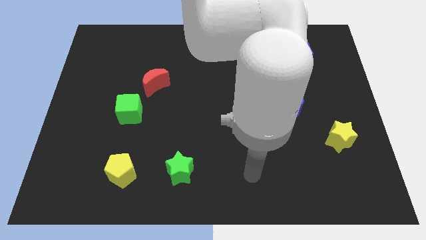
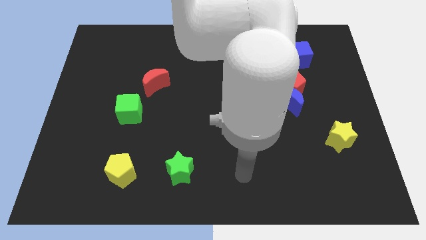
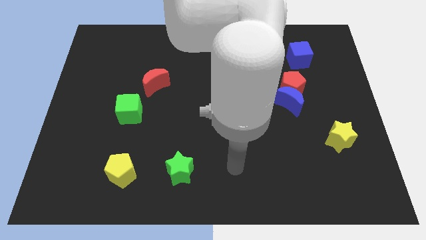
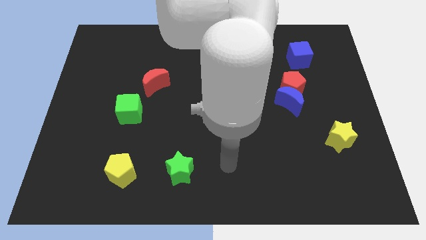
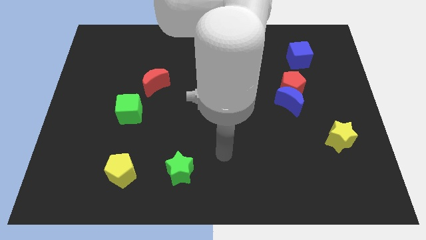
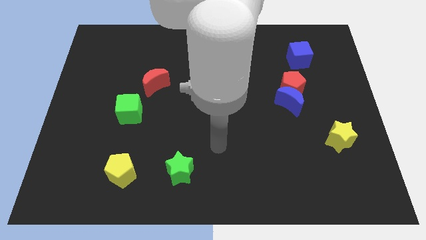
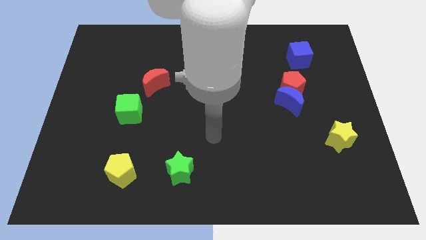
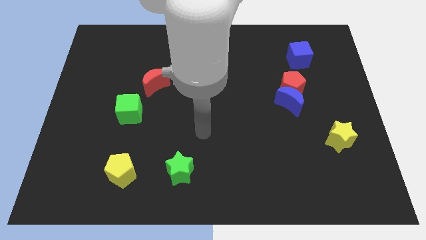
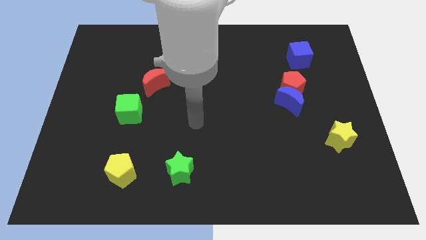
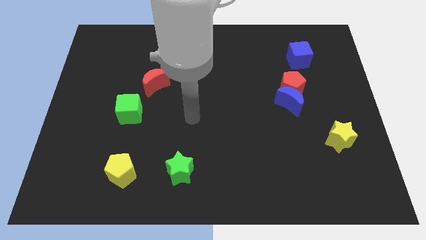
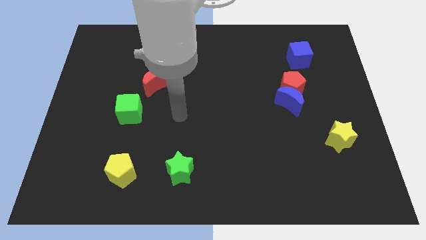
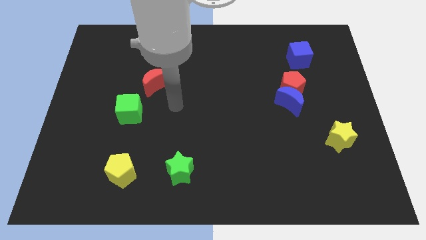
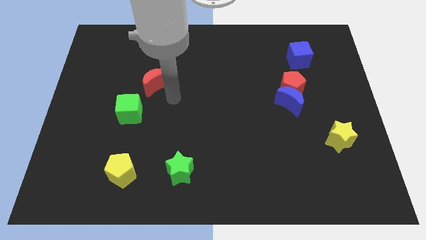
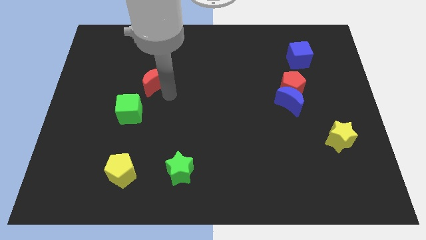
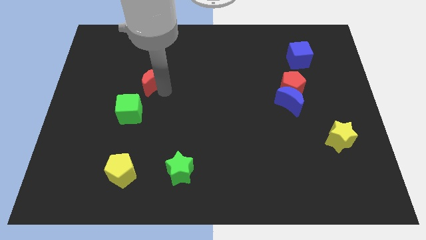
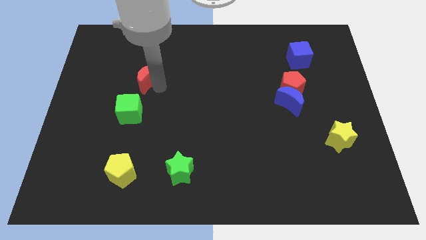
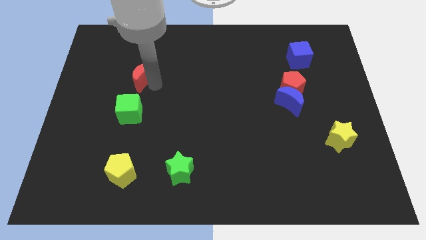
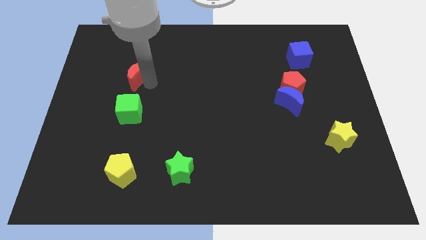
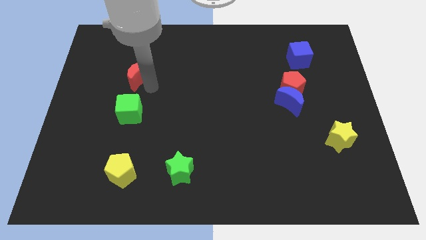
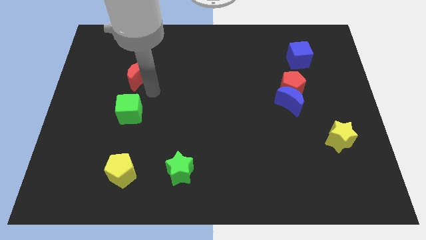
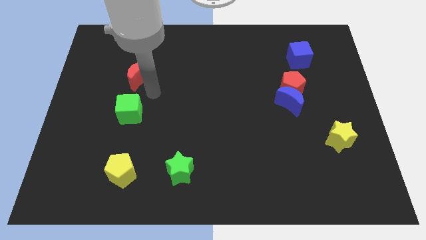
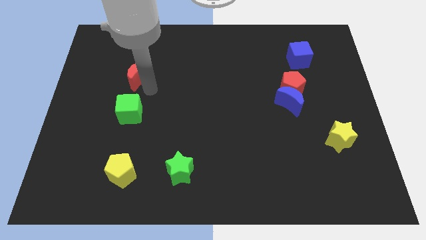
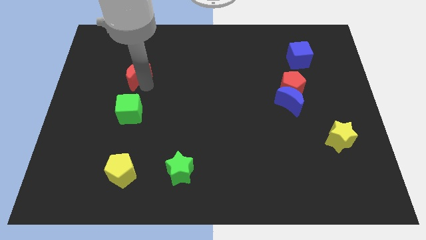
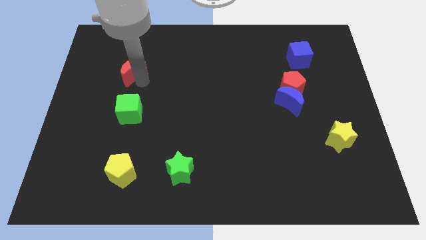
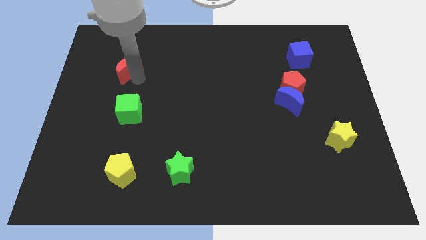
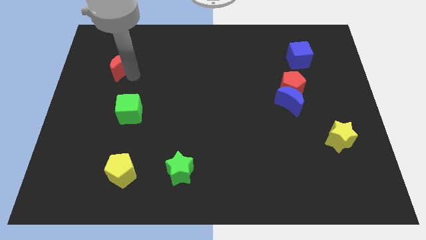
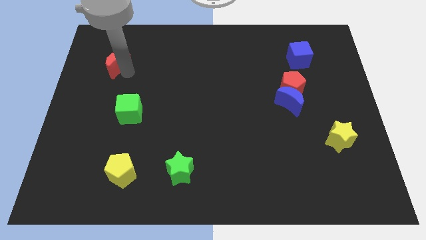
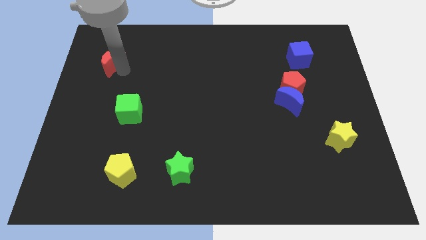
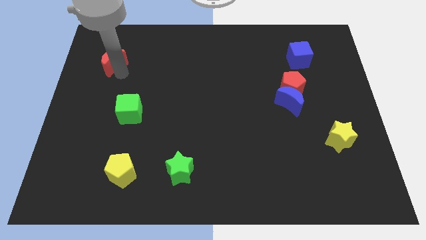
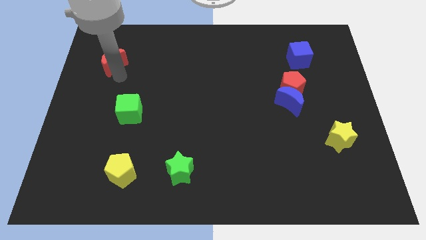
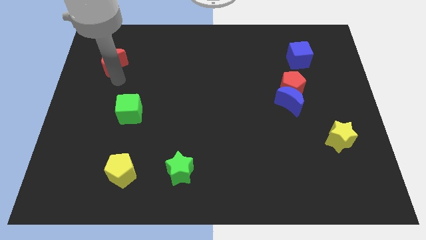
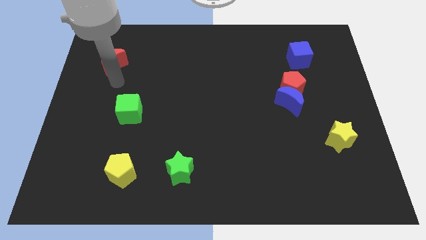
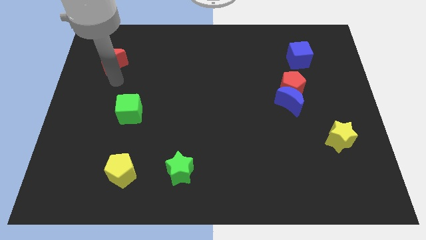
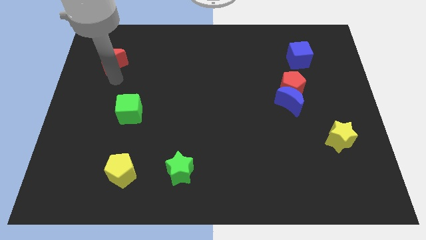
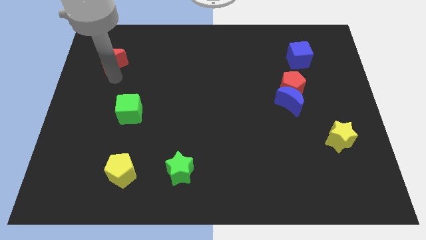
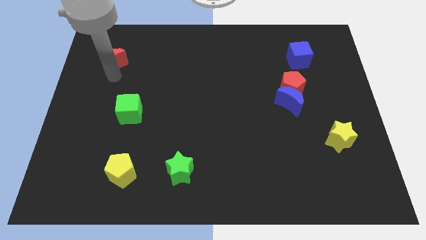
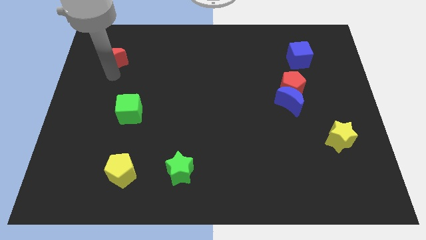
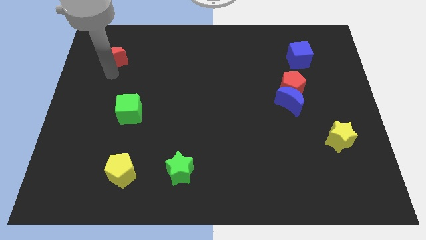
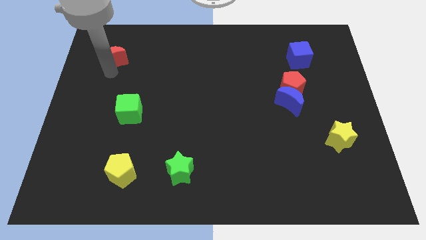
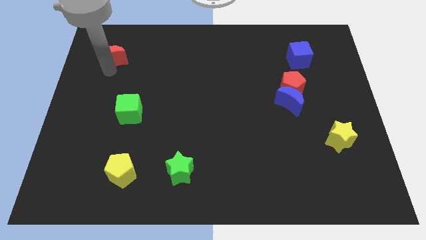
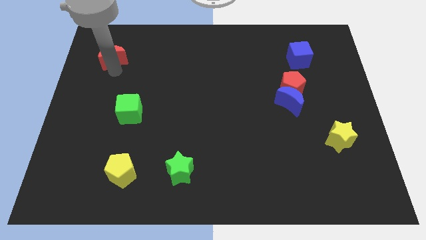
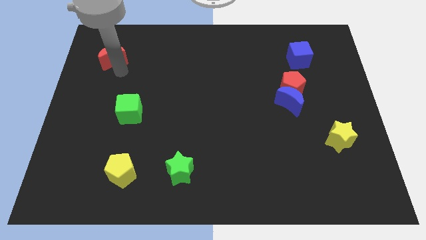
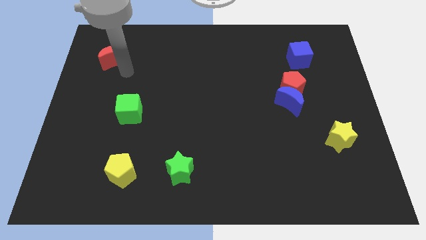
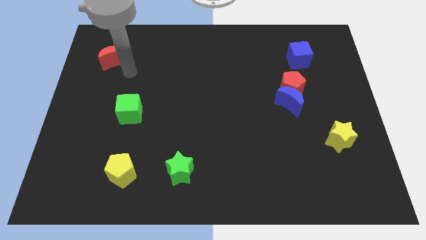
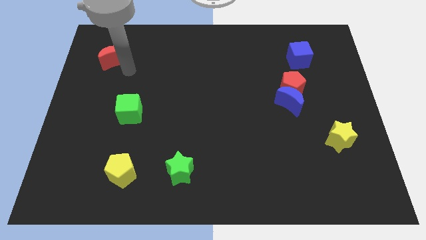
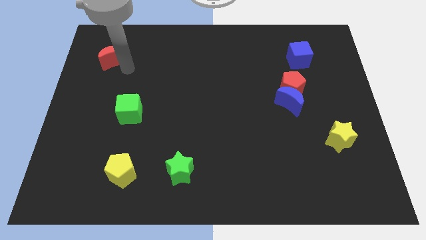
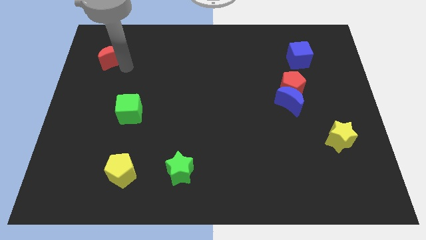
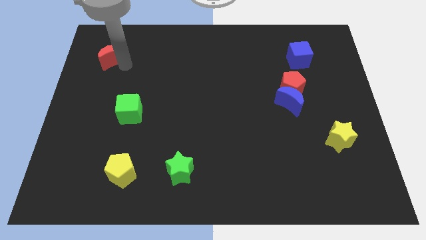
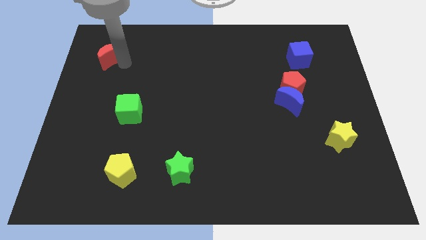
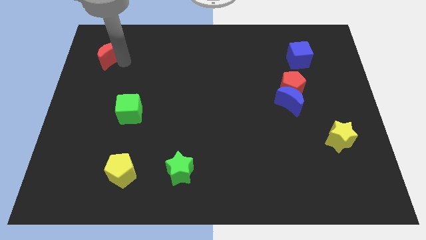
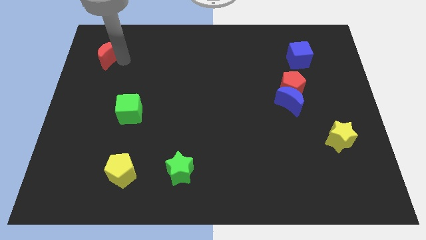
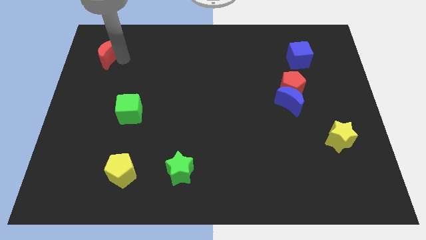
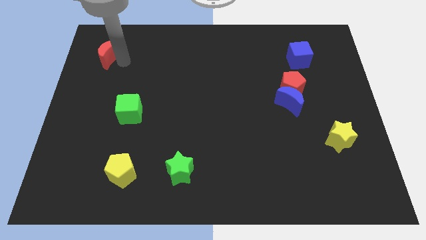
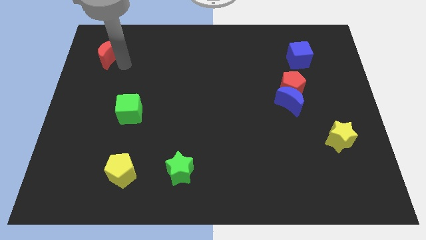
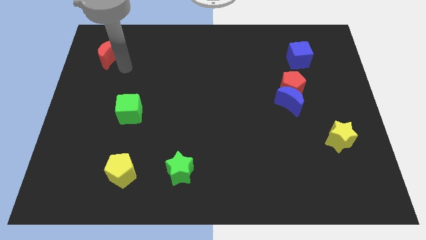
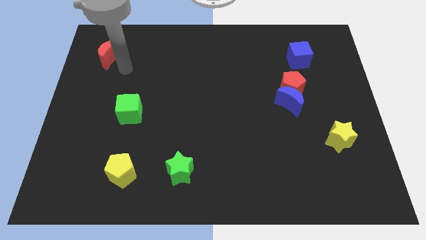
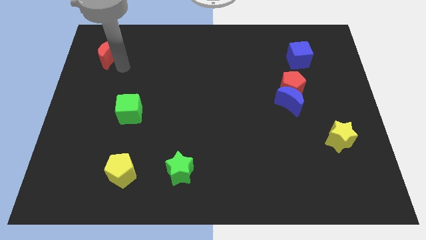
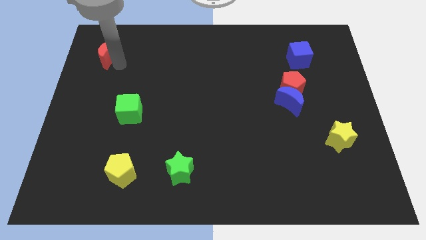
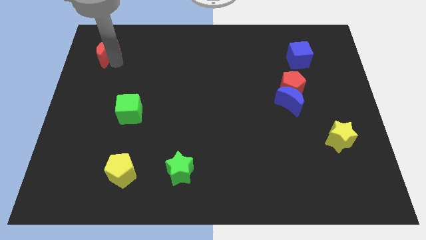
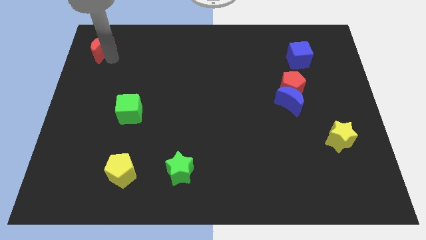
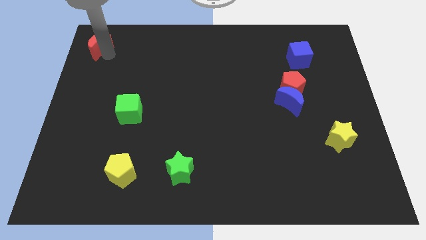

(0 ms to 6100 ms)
push the red moon to the upper left corner

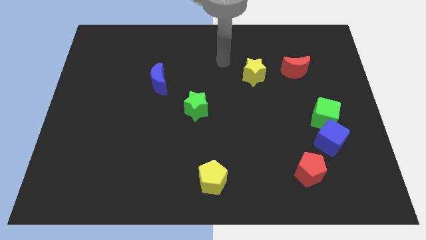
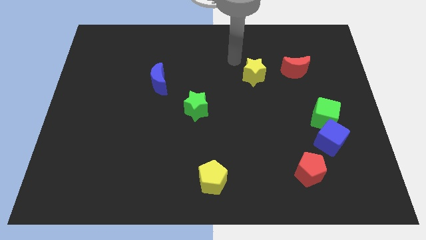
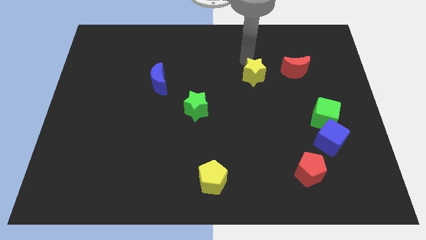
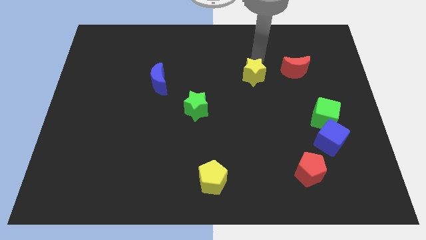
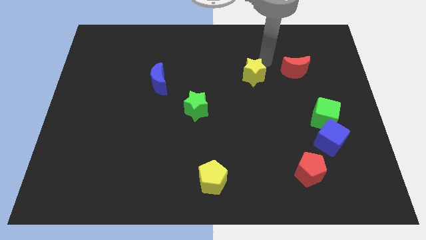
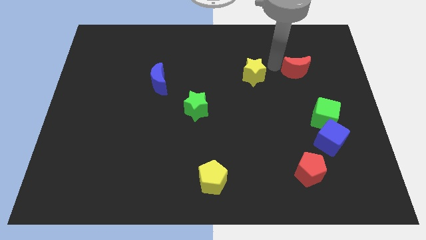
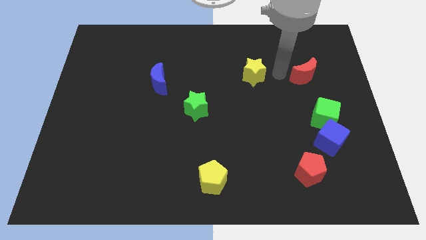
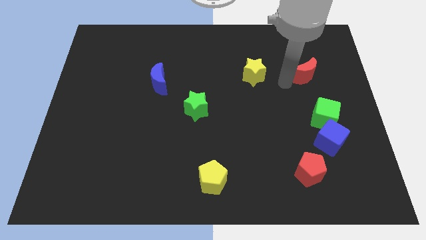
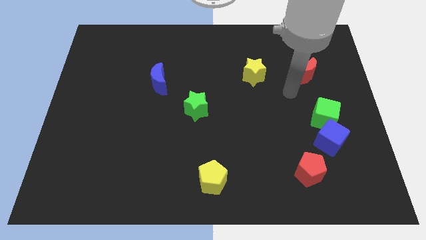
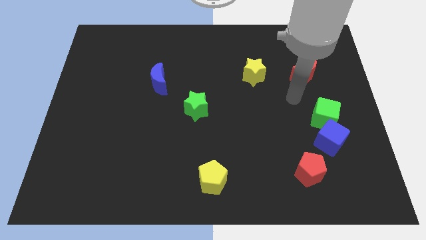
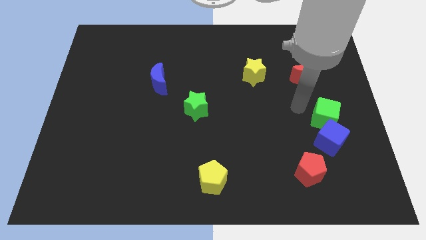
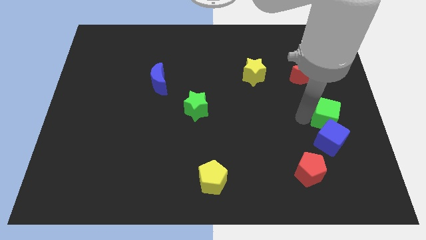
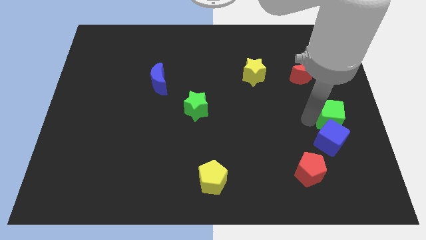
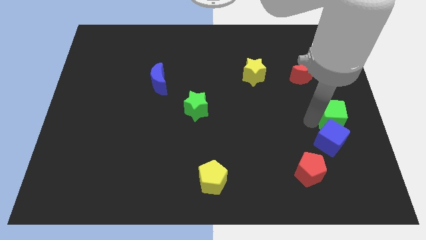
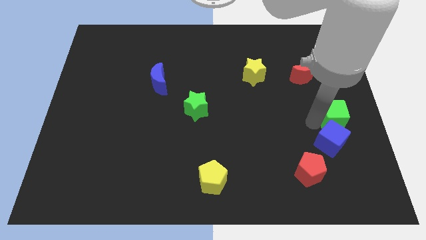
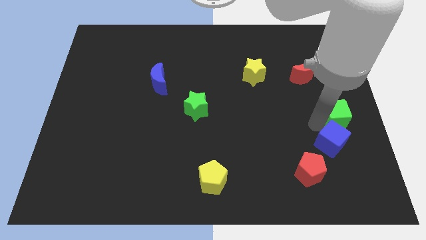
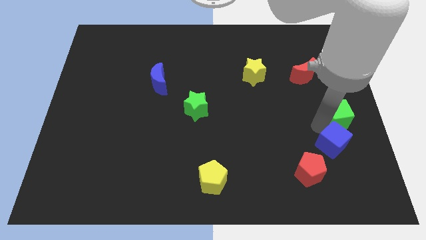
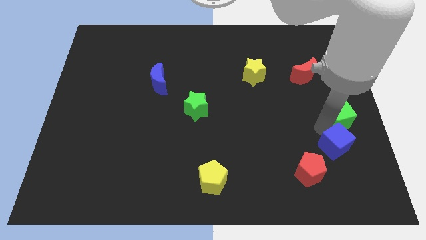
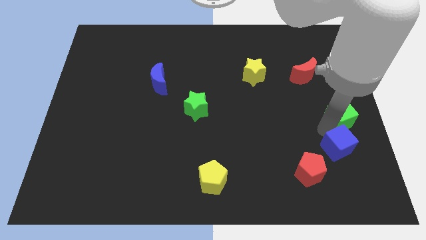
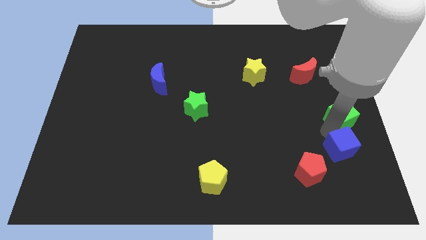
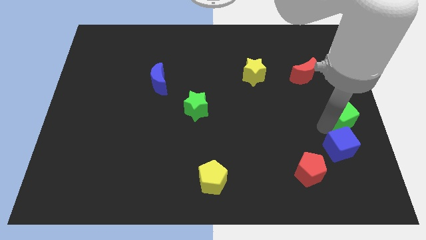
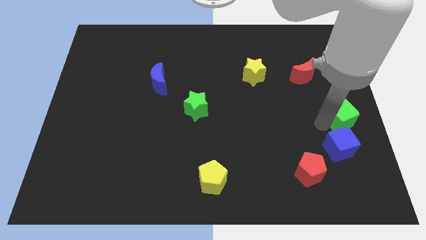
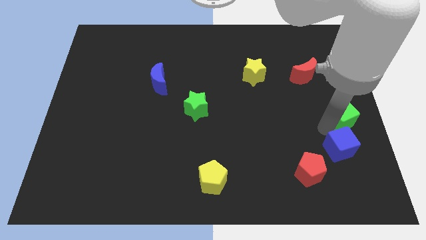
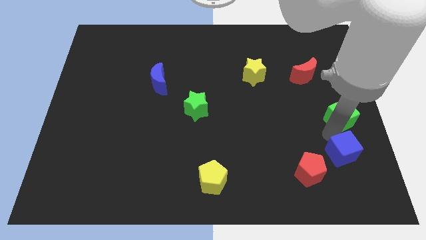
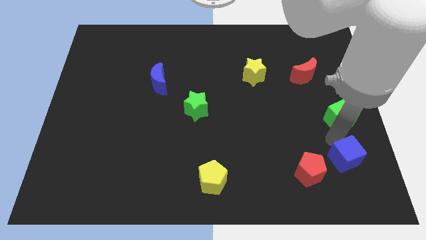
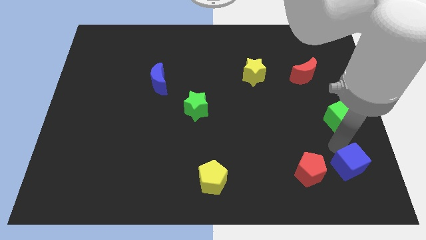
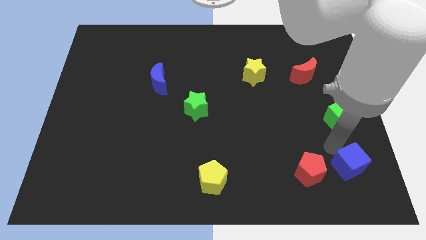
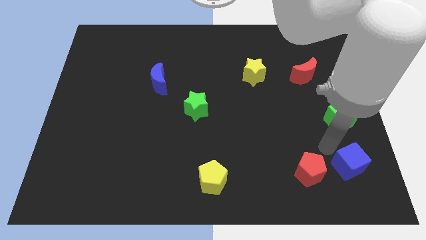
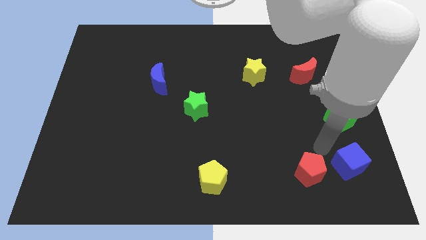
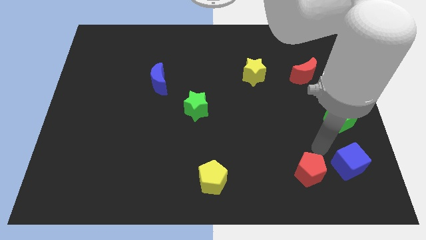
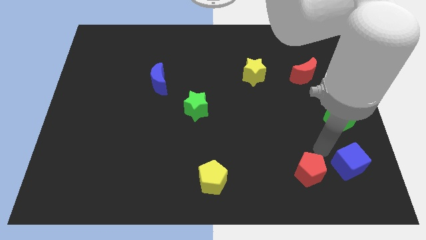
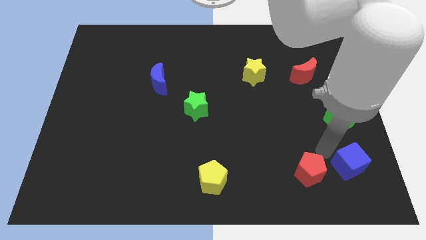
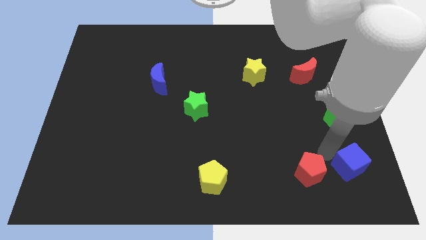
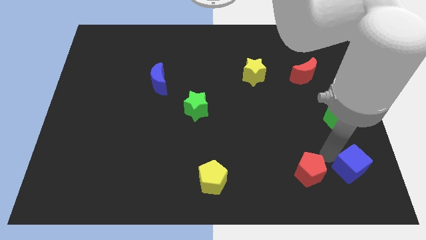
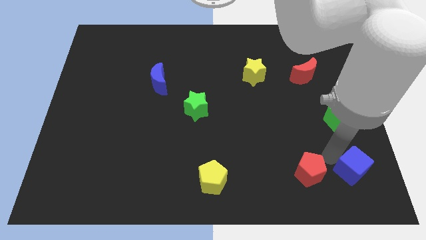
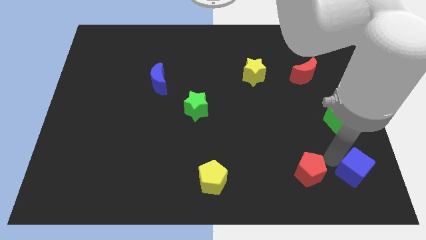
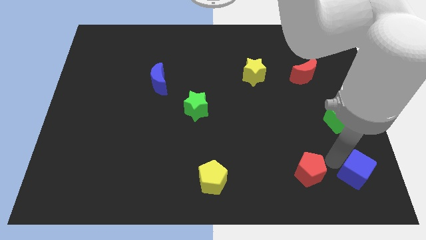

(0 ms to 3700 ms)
push the blue cube to the bottom right corner
